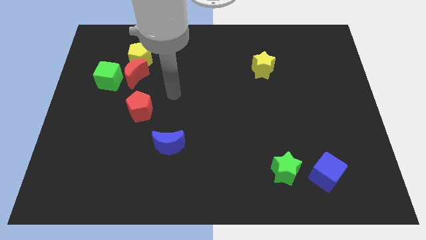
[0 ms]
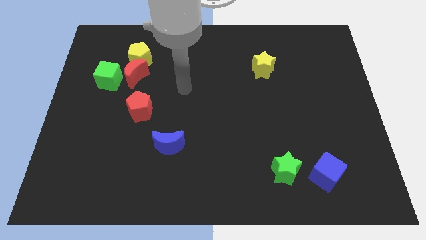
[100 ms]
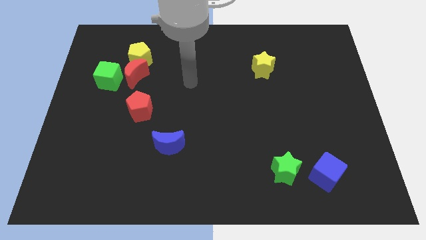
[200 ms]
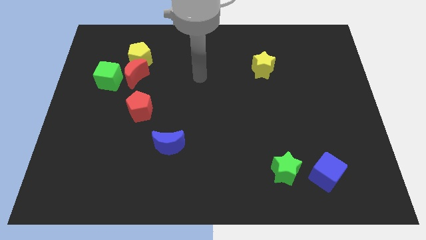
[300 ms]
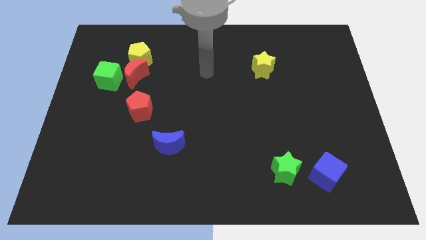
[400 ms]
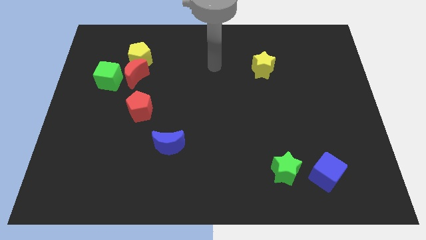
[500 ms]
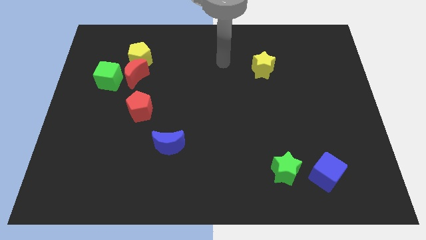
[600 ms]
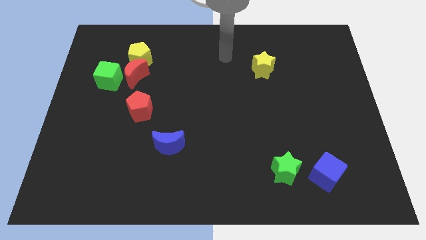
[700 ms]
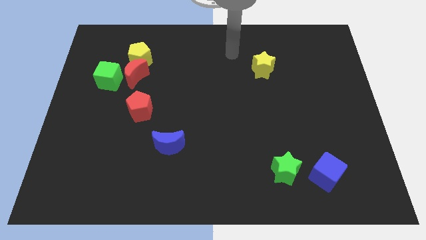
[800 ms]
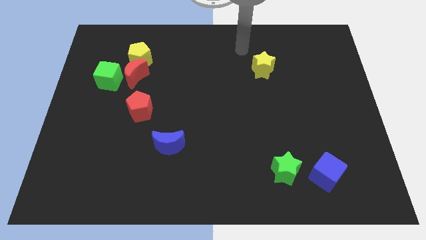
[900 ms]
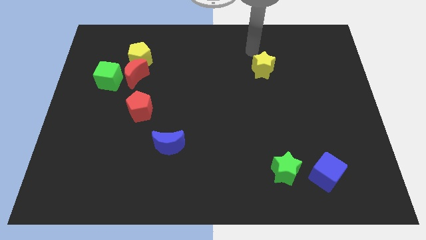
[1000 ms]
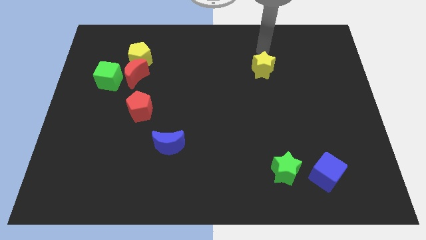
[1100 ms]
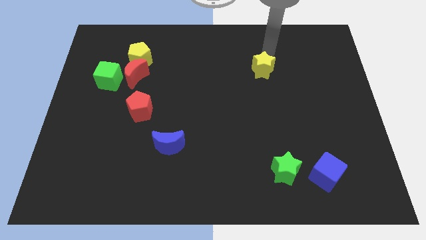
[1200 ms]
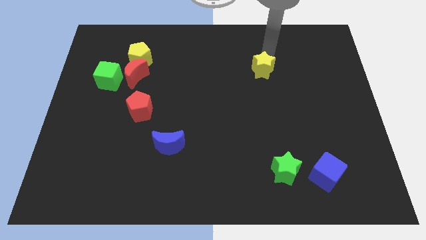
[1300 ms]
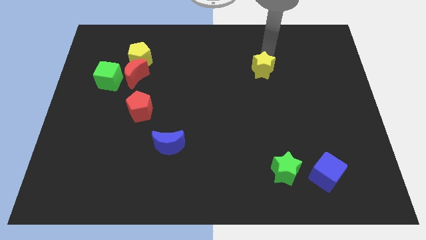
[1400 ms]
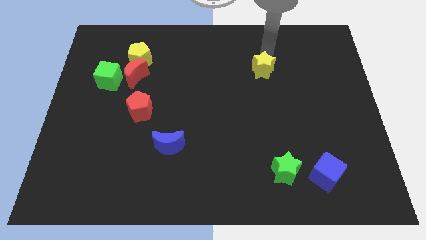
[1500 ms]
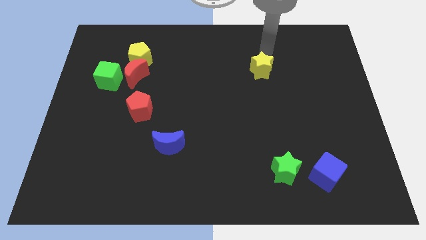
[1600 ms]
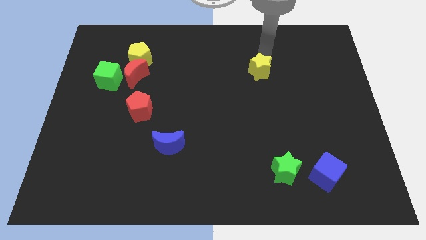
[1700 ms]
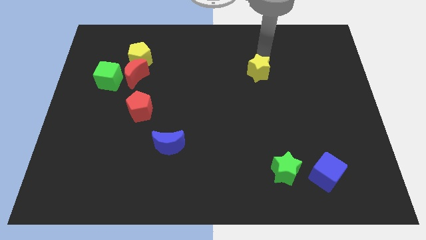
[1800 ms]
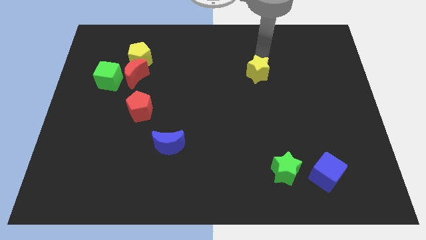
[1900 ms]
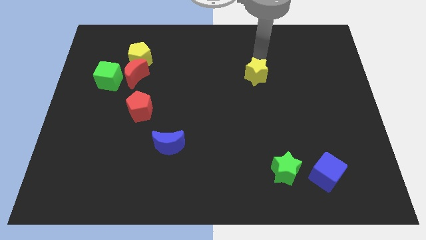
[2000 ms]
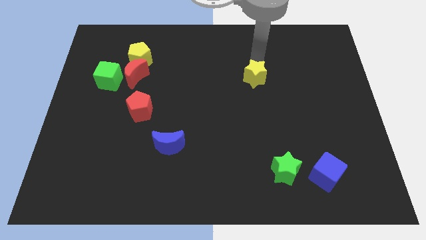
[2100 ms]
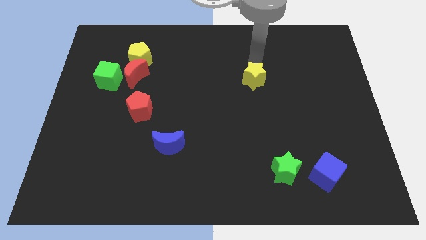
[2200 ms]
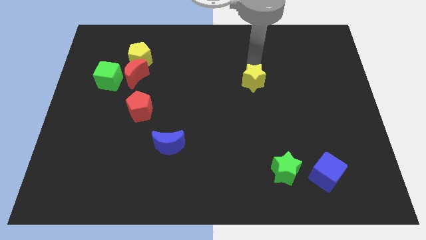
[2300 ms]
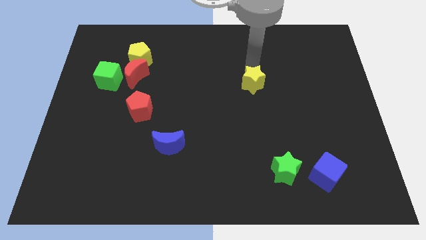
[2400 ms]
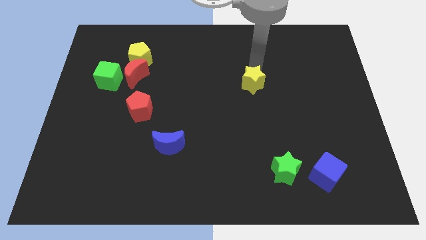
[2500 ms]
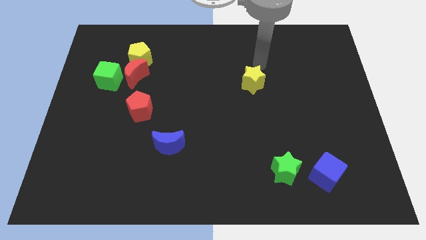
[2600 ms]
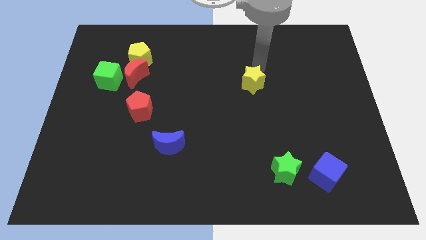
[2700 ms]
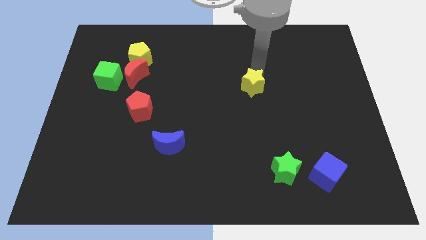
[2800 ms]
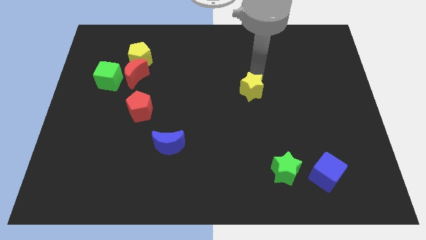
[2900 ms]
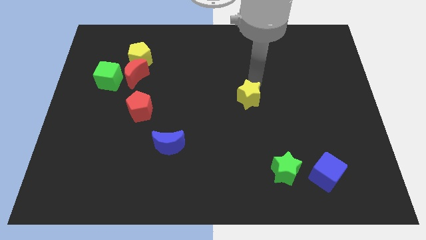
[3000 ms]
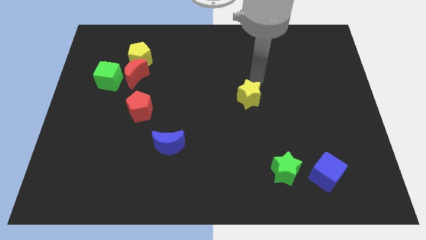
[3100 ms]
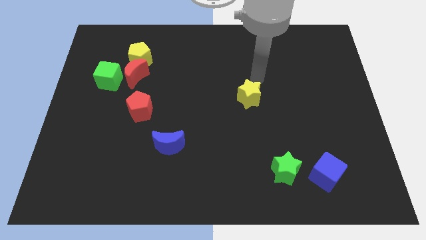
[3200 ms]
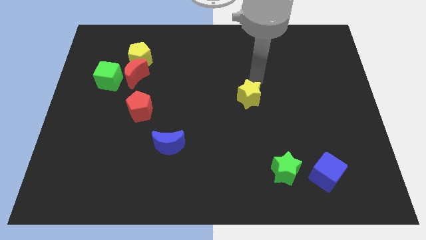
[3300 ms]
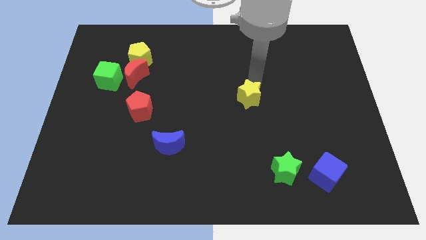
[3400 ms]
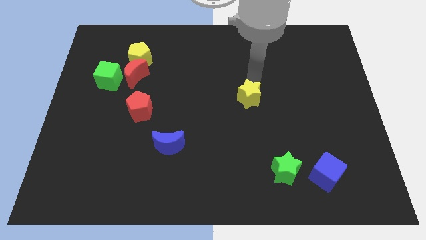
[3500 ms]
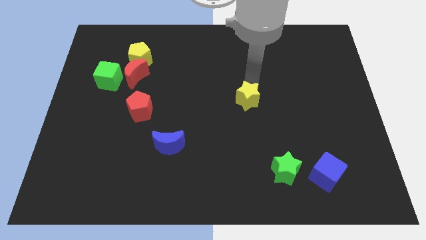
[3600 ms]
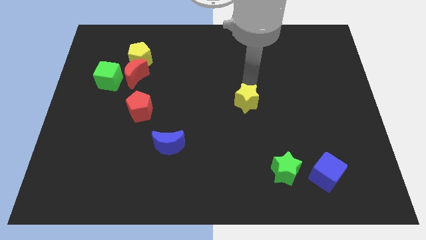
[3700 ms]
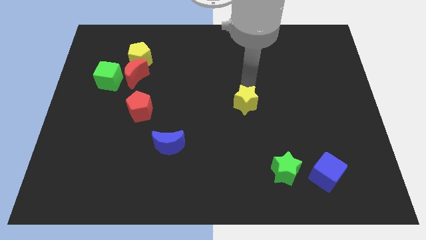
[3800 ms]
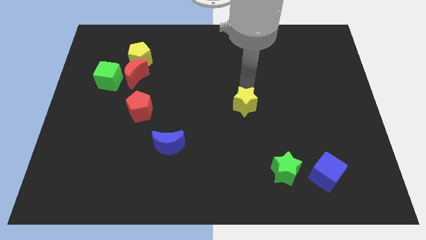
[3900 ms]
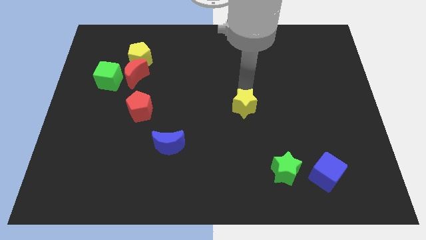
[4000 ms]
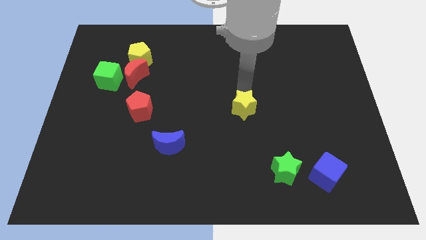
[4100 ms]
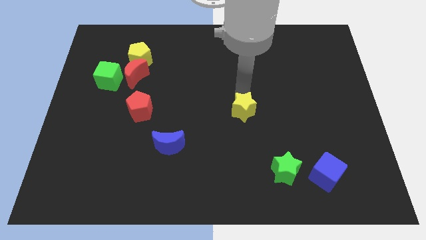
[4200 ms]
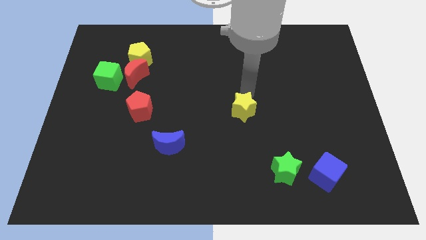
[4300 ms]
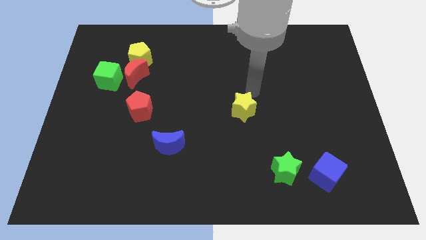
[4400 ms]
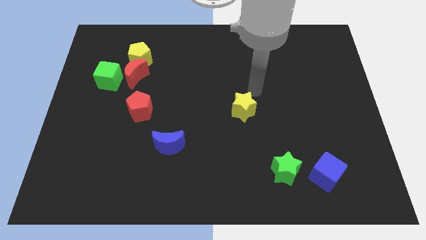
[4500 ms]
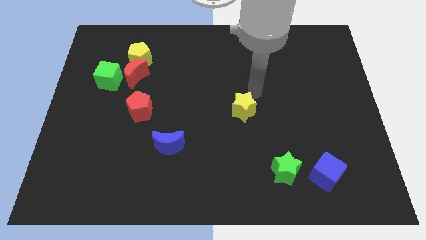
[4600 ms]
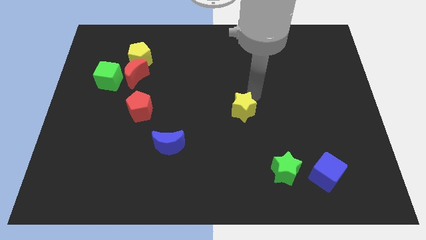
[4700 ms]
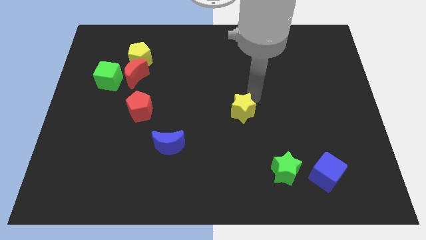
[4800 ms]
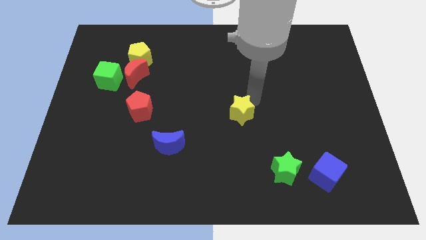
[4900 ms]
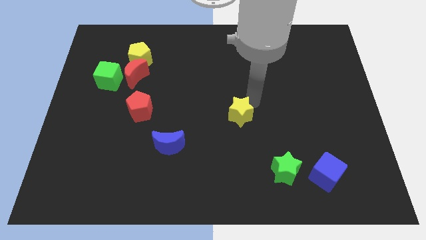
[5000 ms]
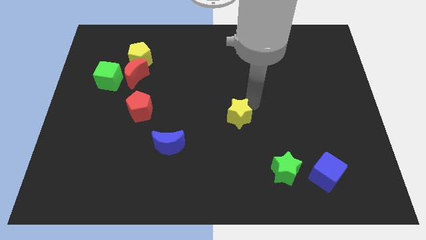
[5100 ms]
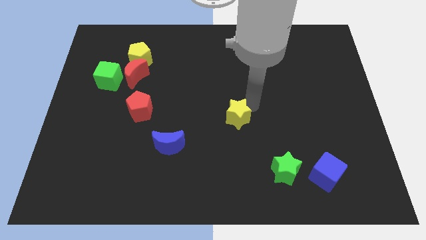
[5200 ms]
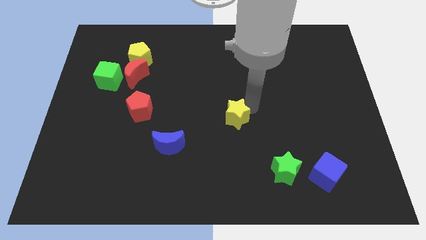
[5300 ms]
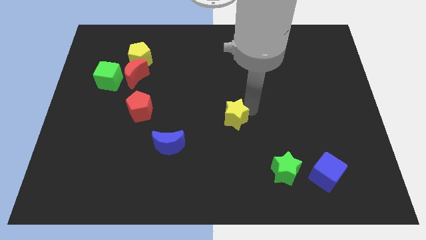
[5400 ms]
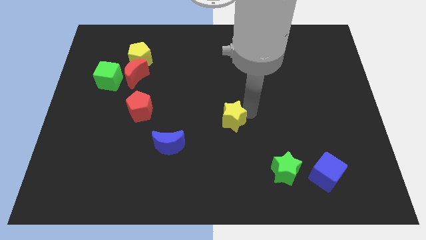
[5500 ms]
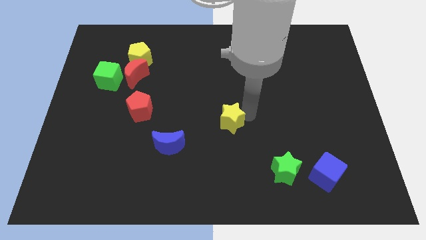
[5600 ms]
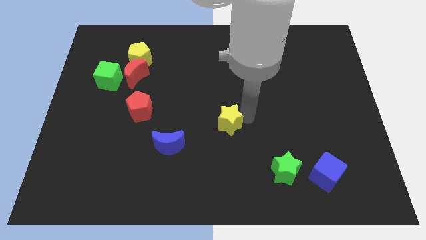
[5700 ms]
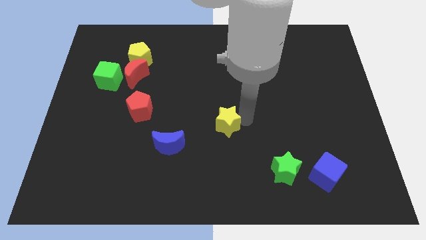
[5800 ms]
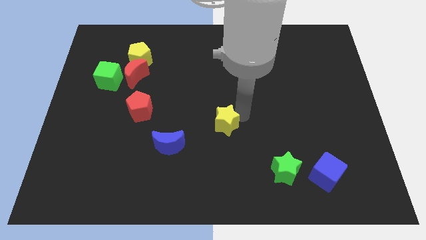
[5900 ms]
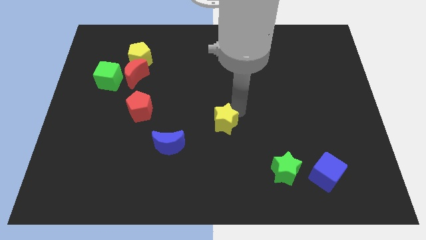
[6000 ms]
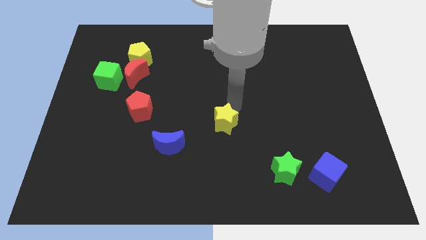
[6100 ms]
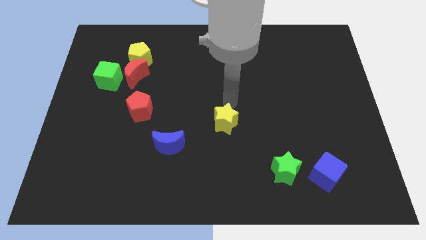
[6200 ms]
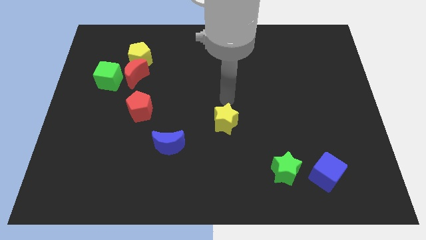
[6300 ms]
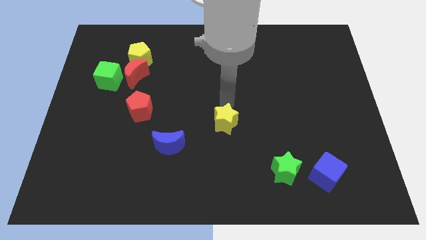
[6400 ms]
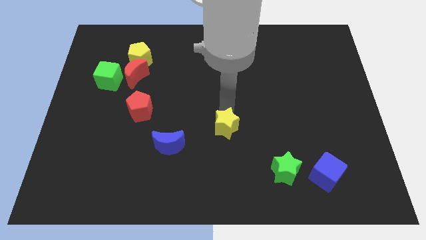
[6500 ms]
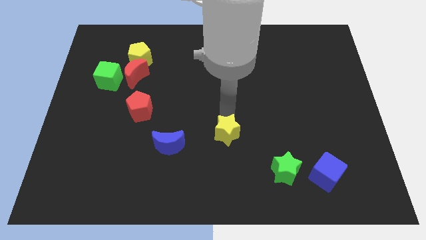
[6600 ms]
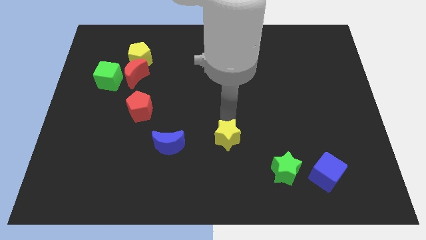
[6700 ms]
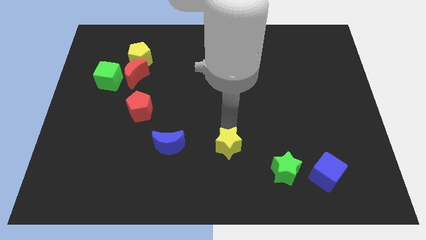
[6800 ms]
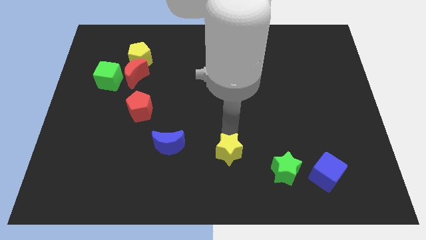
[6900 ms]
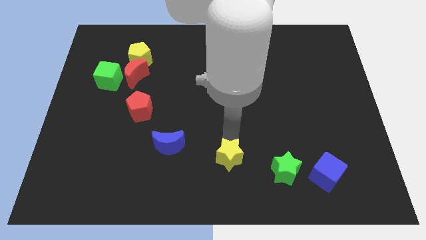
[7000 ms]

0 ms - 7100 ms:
slide the yellow star to the bottom side
